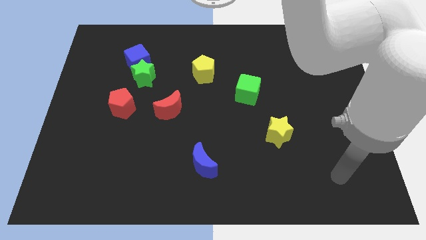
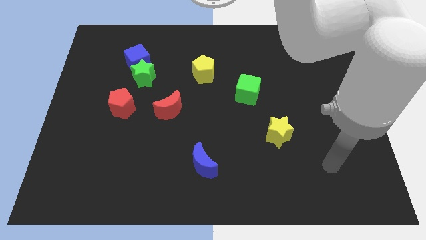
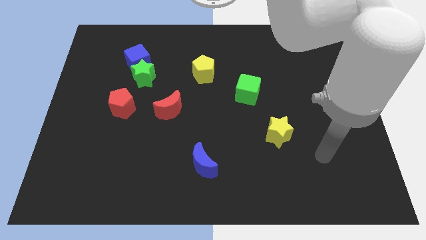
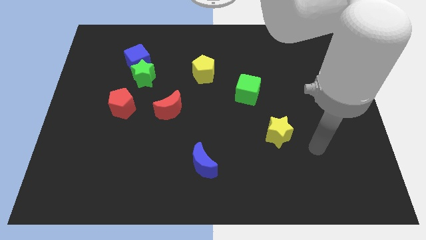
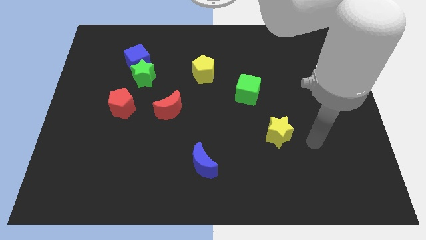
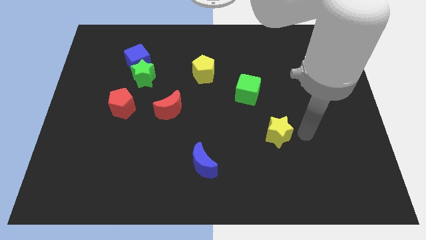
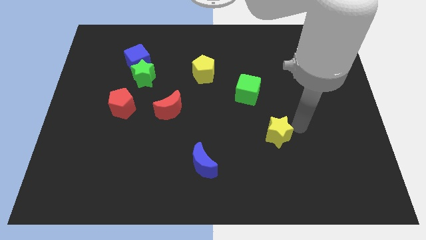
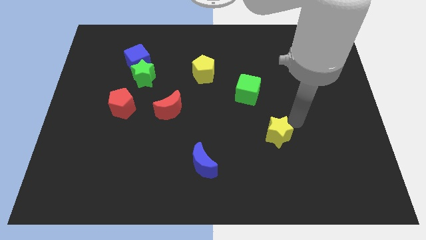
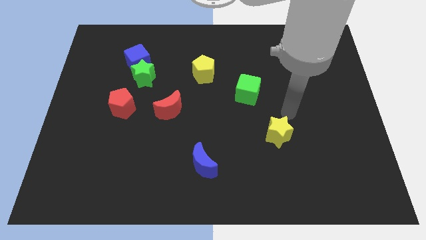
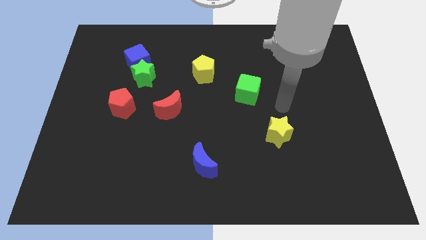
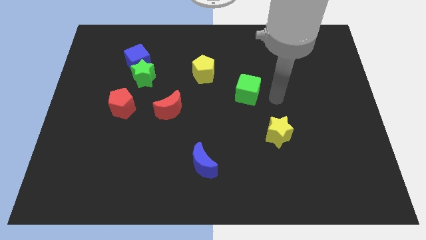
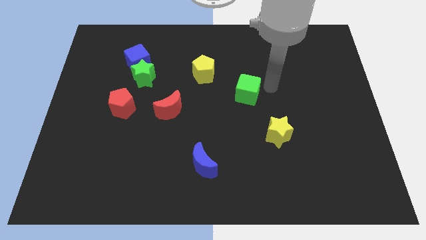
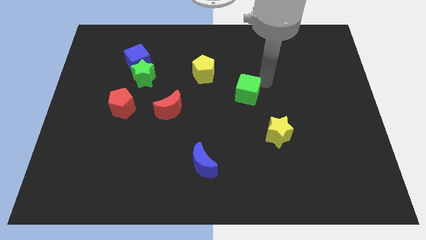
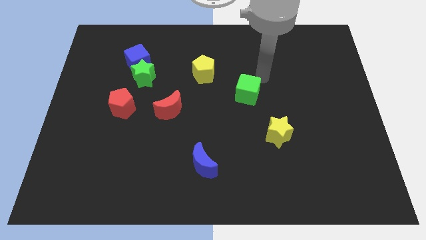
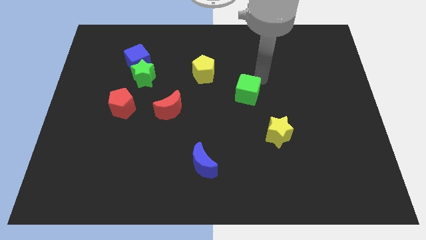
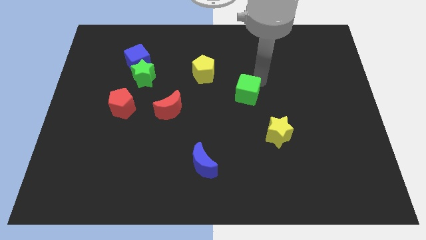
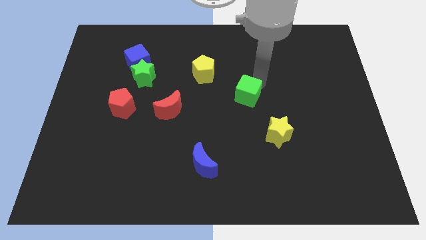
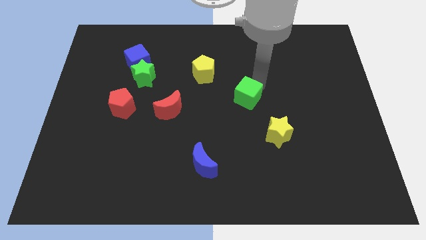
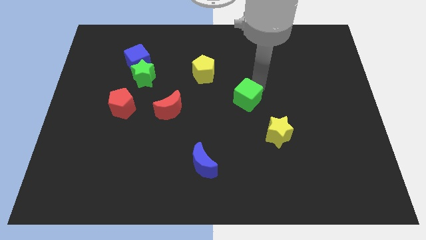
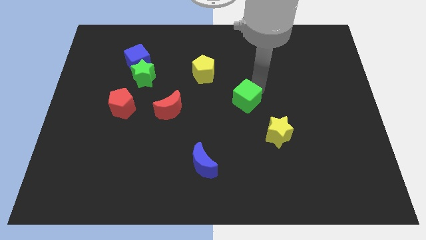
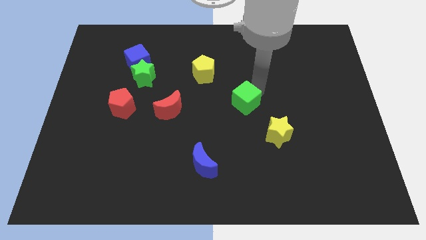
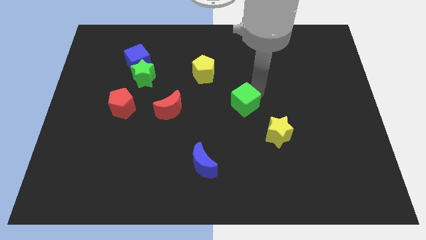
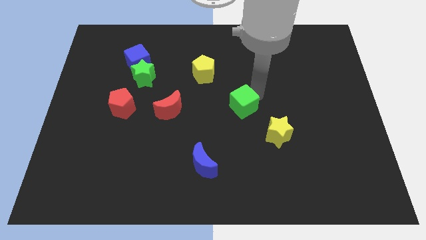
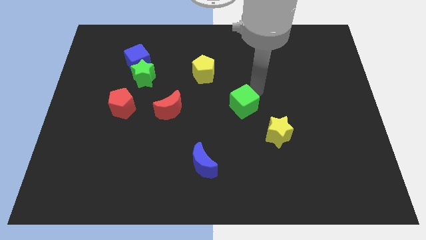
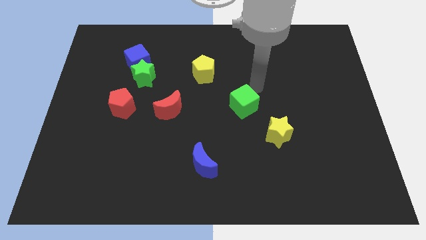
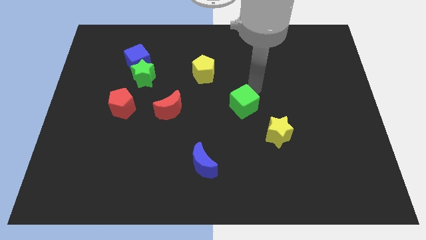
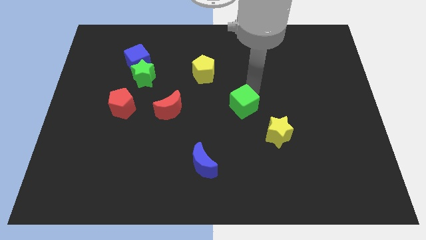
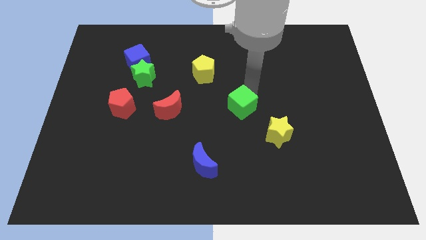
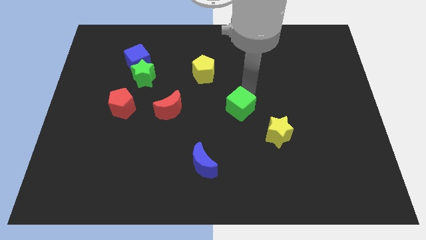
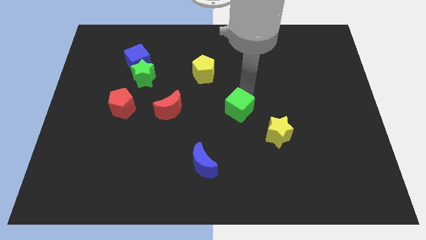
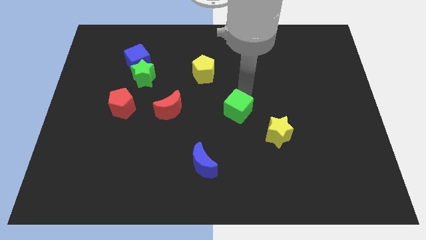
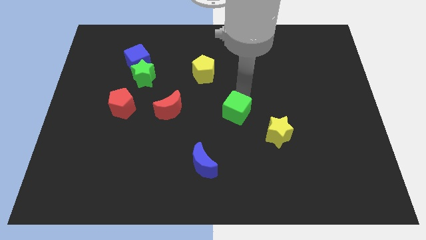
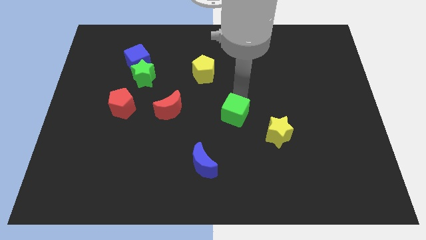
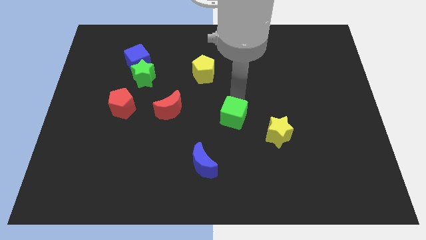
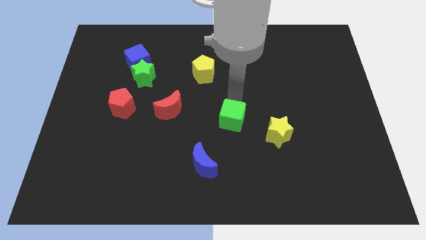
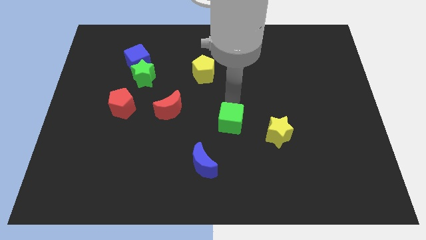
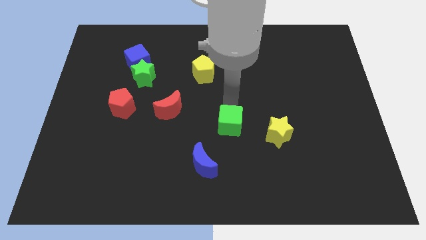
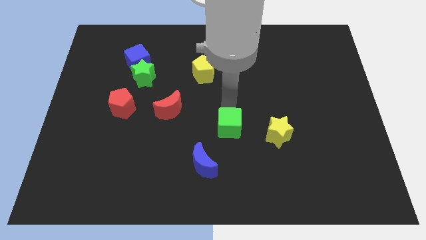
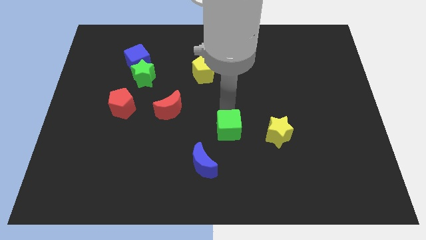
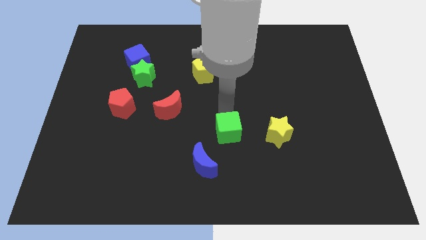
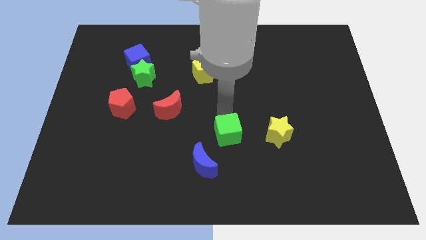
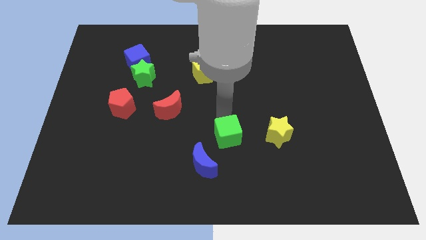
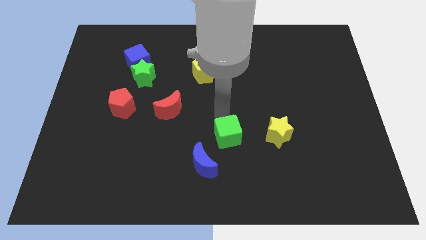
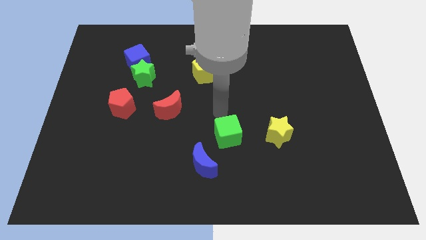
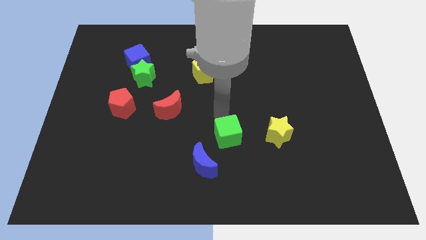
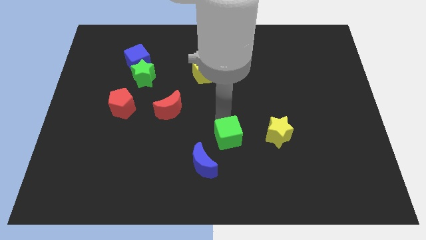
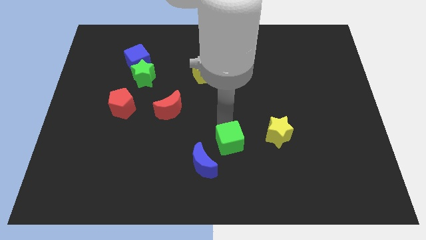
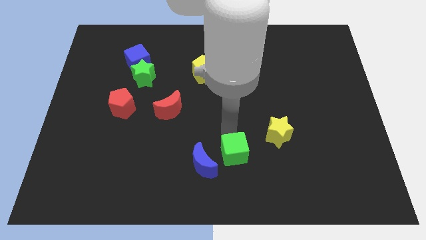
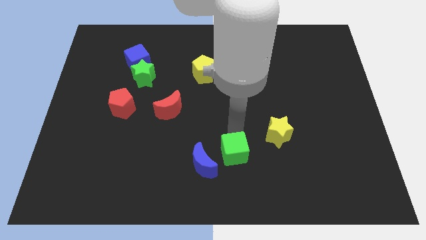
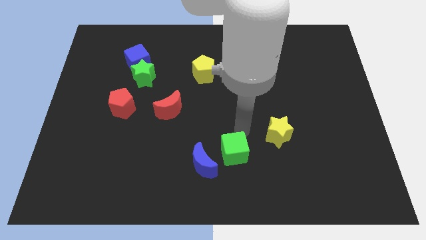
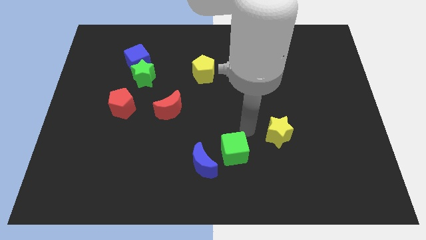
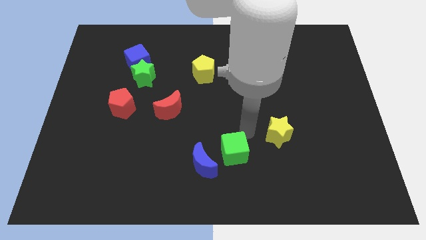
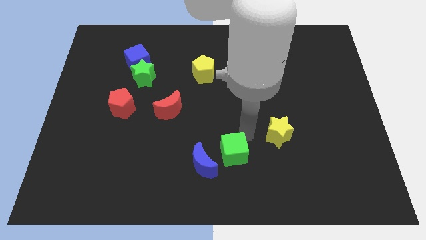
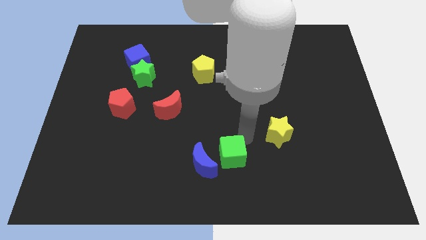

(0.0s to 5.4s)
put the green cube to the bottom side
